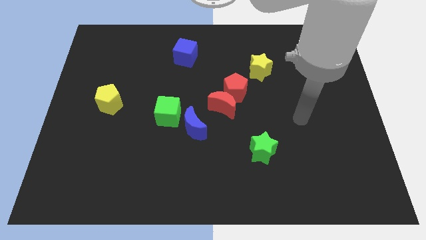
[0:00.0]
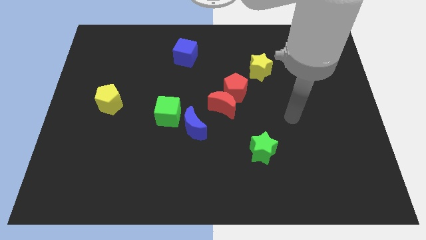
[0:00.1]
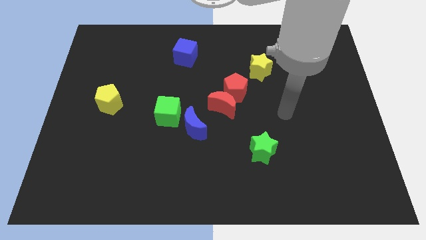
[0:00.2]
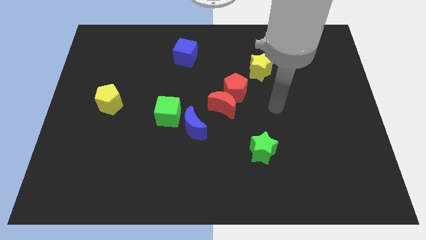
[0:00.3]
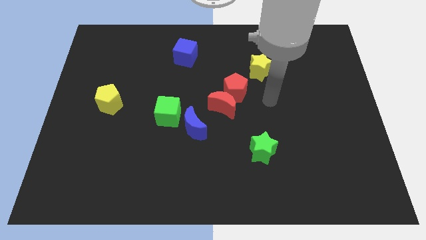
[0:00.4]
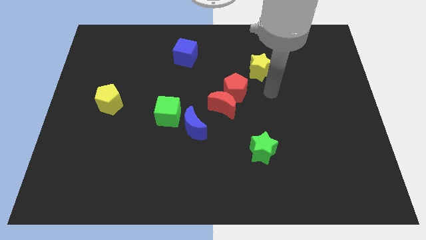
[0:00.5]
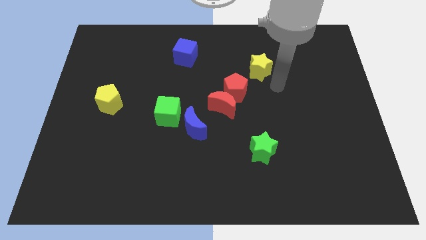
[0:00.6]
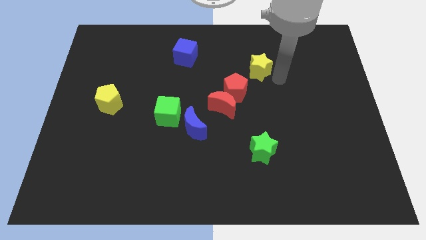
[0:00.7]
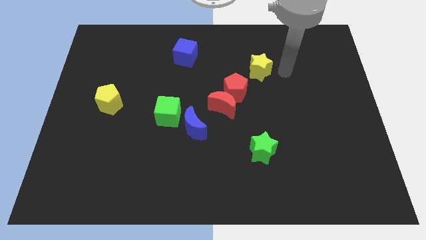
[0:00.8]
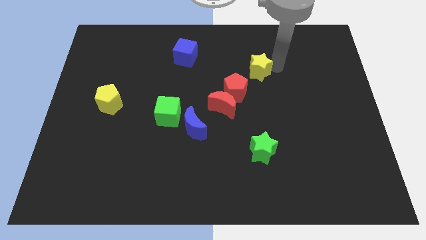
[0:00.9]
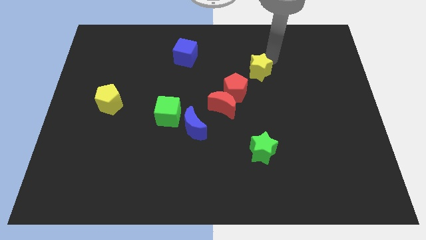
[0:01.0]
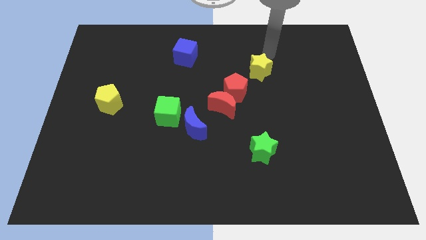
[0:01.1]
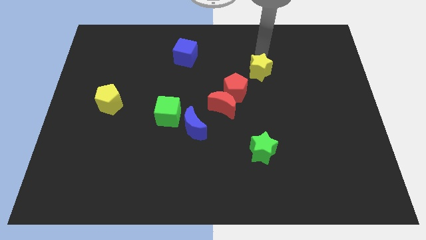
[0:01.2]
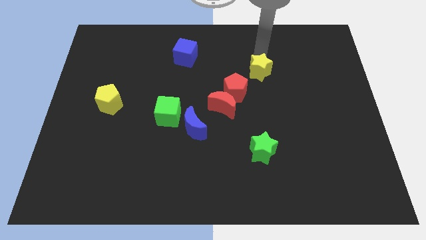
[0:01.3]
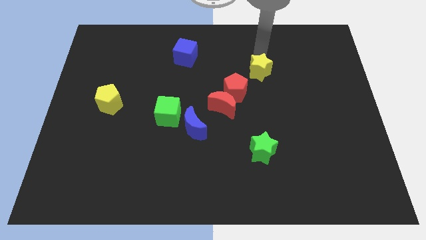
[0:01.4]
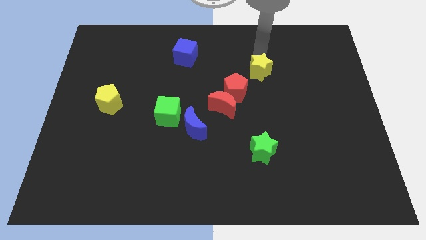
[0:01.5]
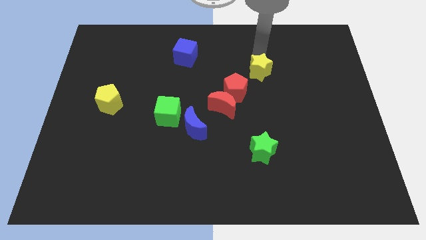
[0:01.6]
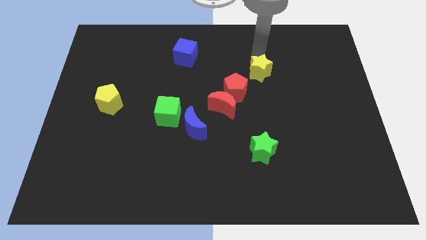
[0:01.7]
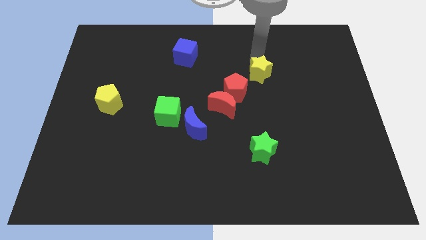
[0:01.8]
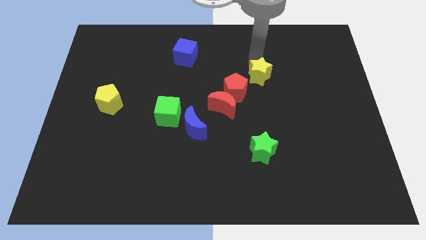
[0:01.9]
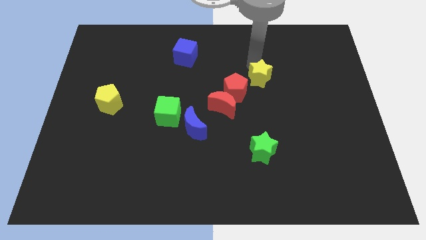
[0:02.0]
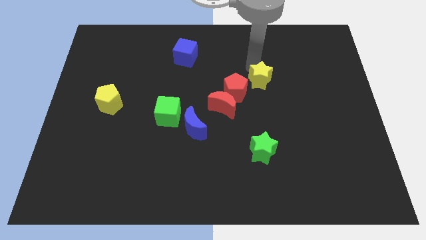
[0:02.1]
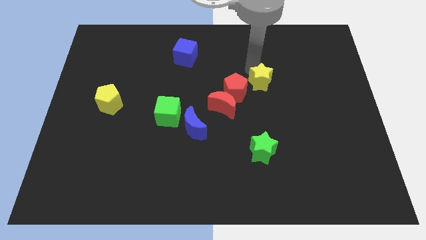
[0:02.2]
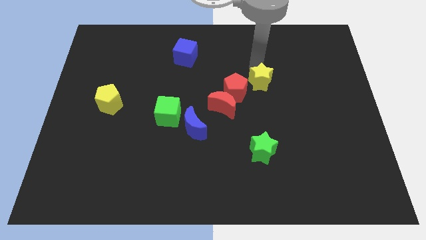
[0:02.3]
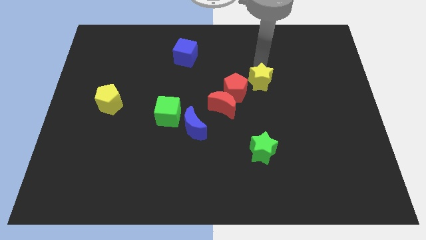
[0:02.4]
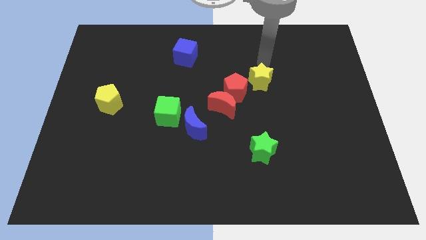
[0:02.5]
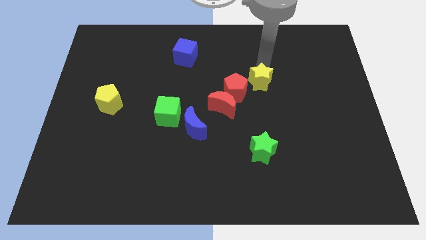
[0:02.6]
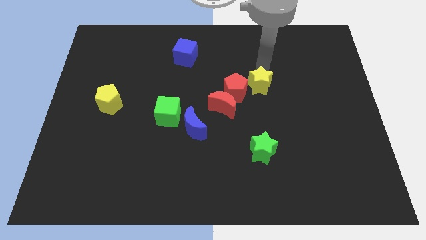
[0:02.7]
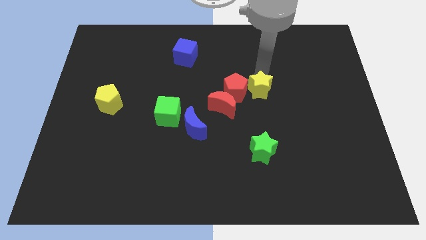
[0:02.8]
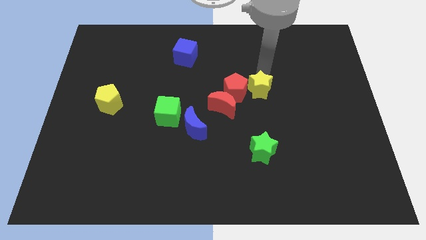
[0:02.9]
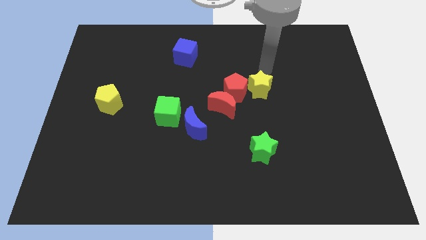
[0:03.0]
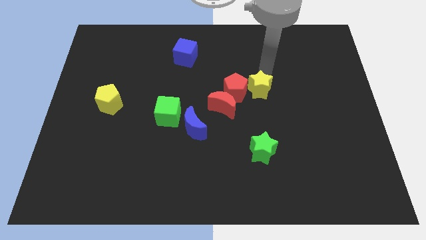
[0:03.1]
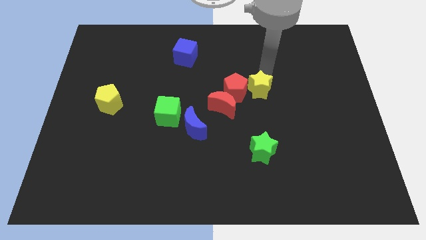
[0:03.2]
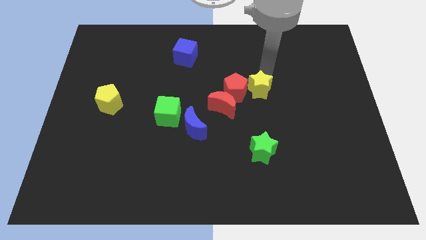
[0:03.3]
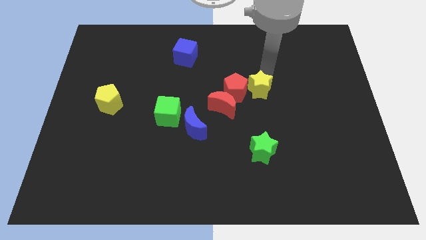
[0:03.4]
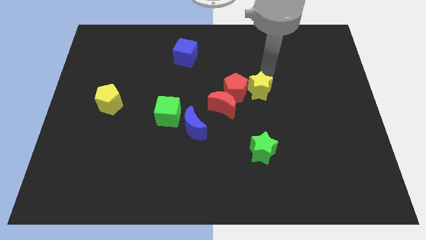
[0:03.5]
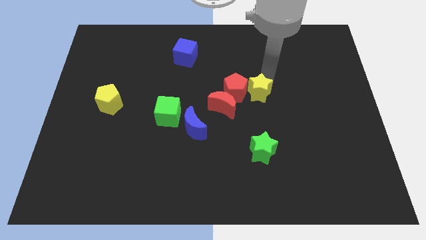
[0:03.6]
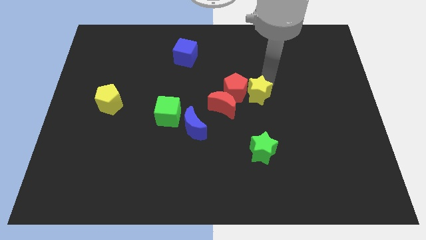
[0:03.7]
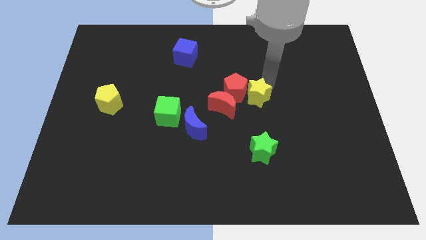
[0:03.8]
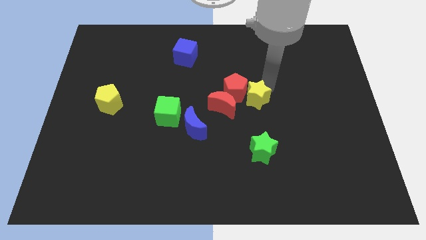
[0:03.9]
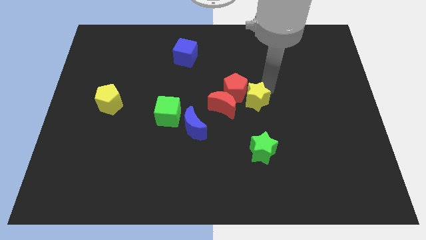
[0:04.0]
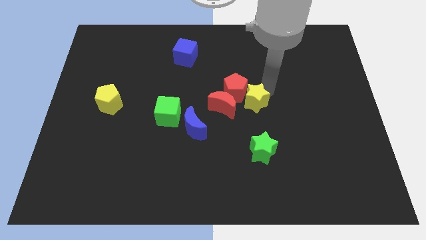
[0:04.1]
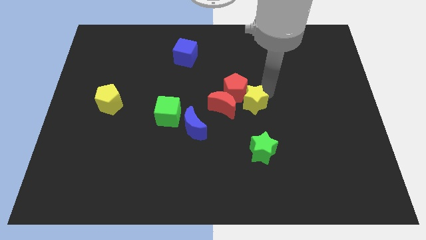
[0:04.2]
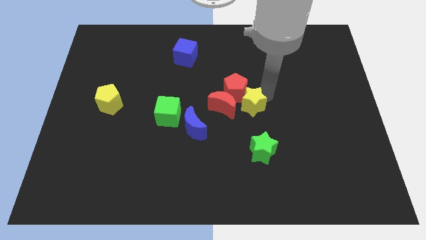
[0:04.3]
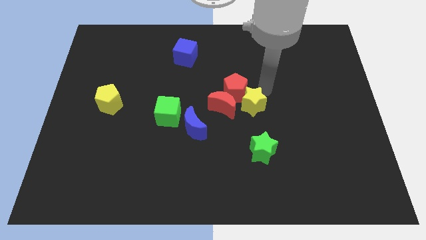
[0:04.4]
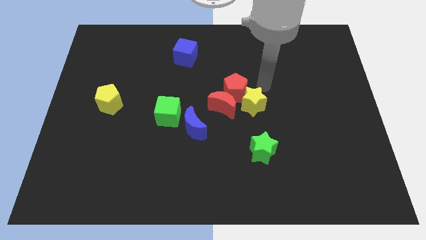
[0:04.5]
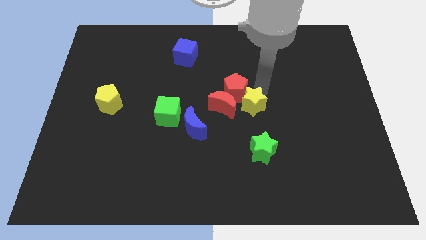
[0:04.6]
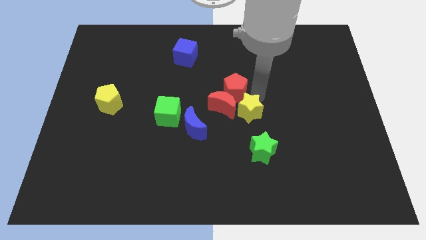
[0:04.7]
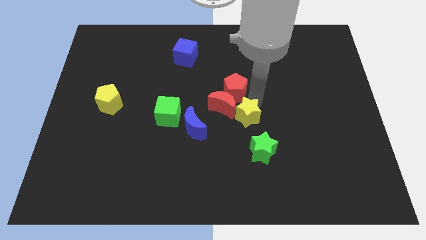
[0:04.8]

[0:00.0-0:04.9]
move the yellow star right of the blue moon

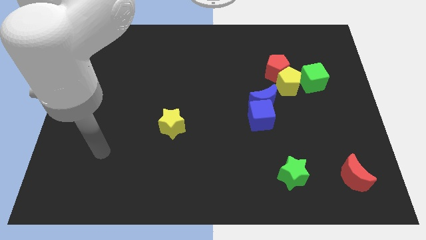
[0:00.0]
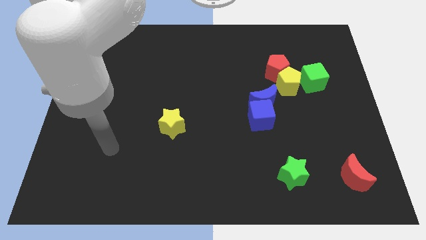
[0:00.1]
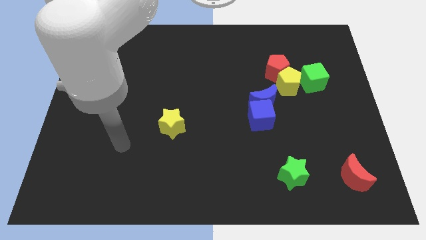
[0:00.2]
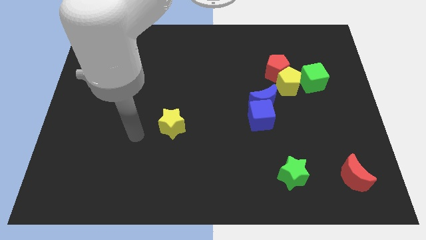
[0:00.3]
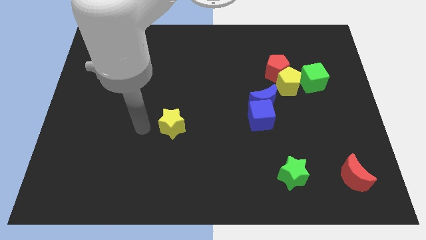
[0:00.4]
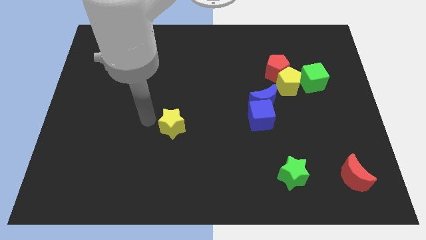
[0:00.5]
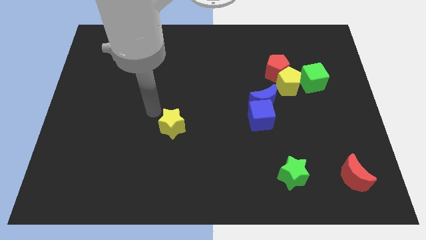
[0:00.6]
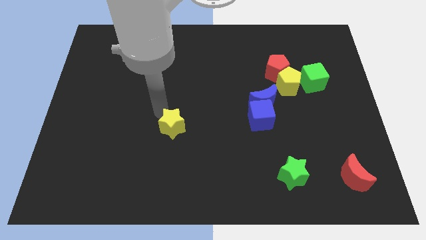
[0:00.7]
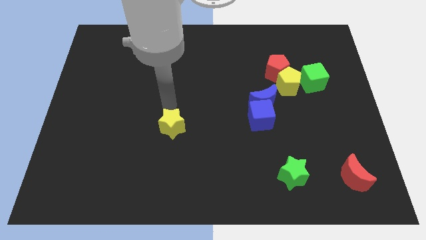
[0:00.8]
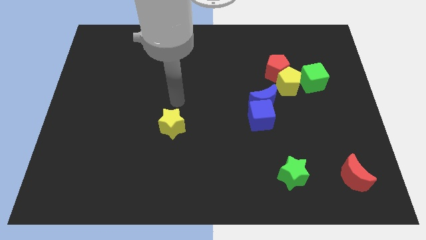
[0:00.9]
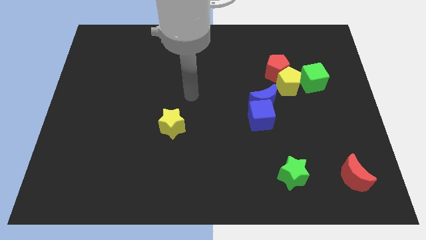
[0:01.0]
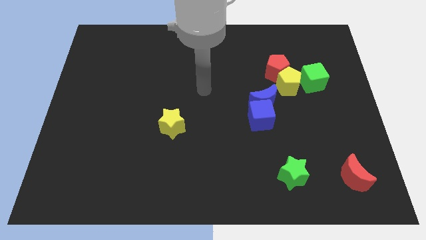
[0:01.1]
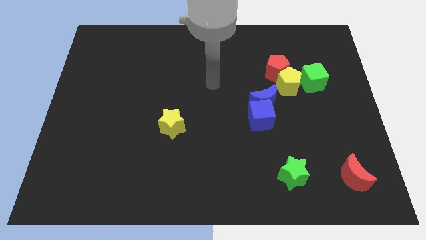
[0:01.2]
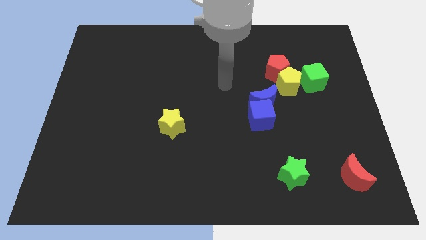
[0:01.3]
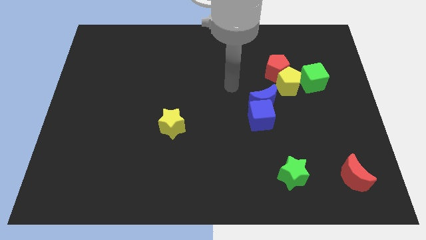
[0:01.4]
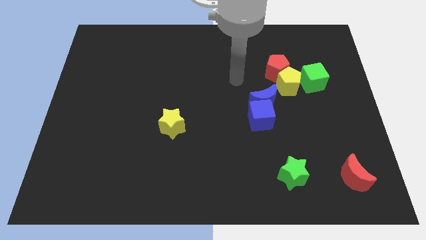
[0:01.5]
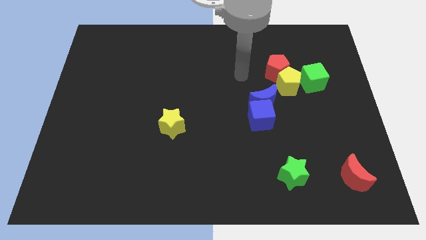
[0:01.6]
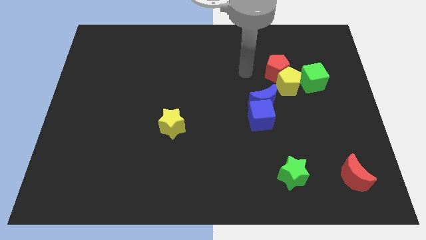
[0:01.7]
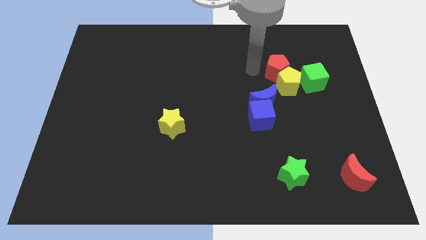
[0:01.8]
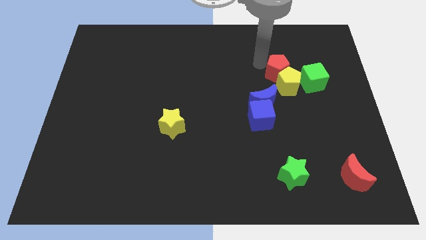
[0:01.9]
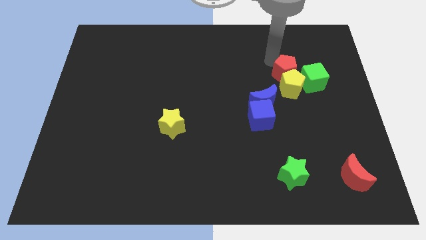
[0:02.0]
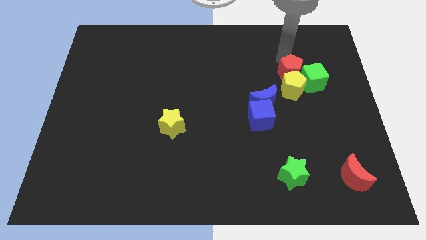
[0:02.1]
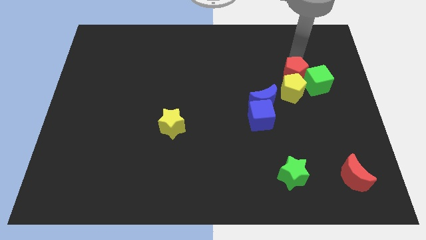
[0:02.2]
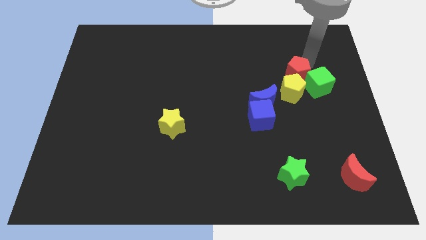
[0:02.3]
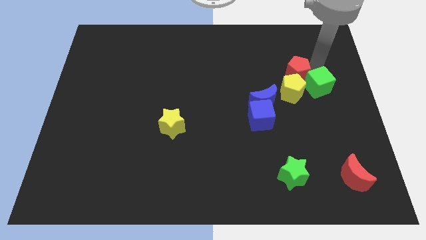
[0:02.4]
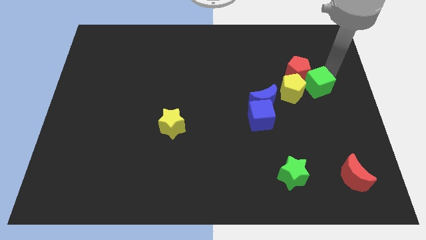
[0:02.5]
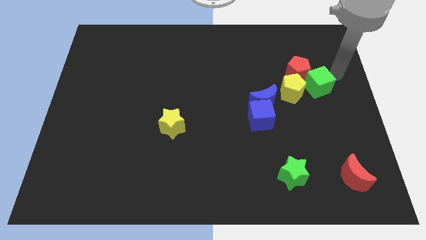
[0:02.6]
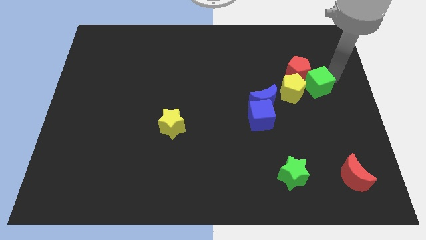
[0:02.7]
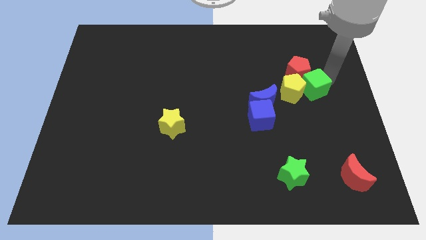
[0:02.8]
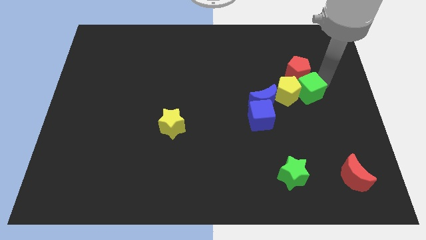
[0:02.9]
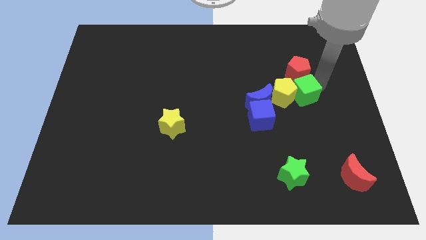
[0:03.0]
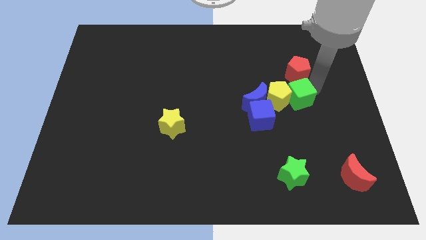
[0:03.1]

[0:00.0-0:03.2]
move the green cube diagonally up and to the right of the blue cube
